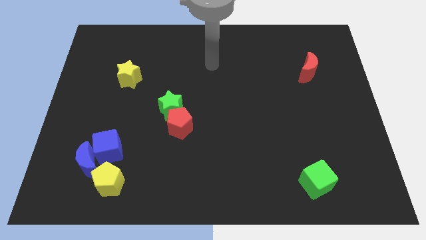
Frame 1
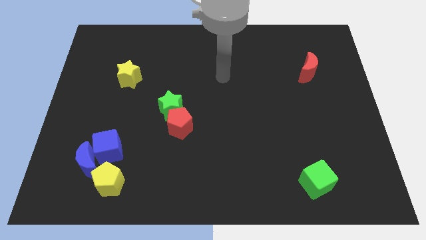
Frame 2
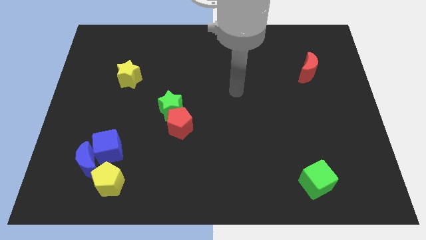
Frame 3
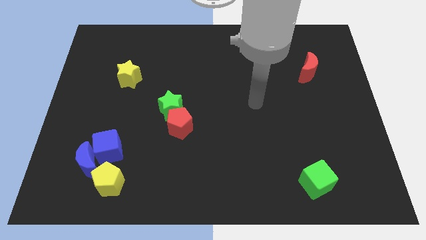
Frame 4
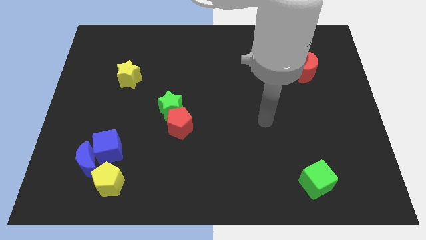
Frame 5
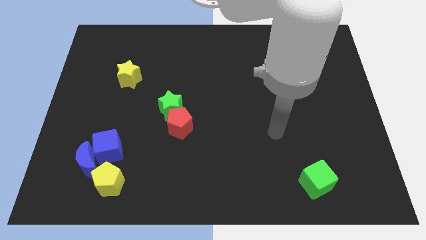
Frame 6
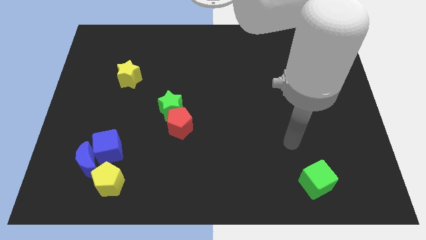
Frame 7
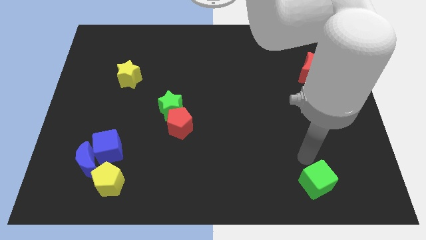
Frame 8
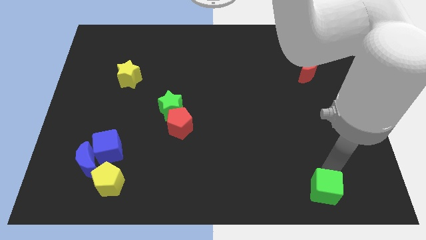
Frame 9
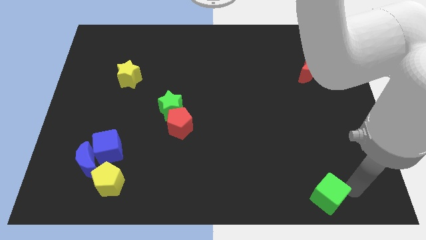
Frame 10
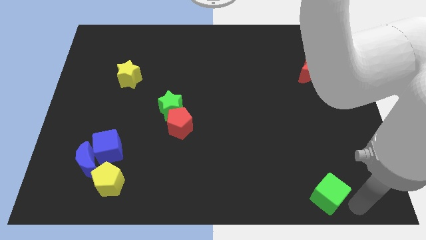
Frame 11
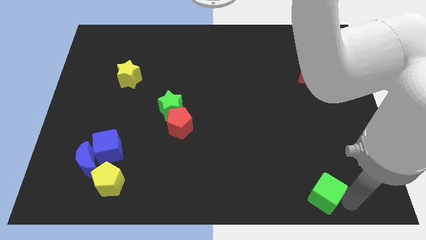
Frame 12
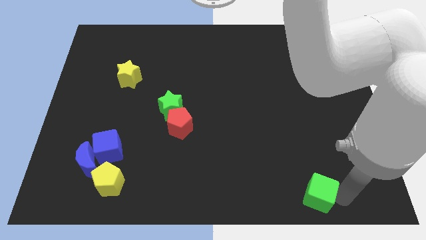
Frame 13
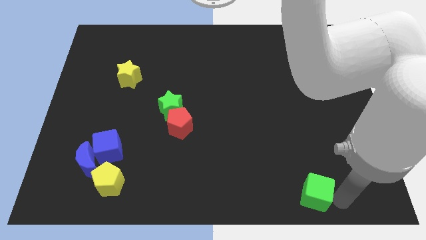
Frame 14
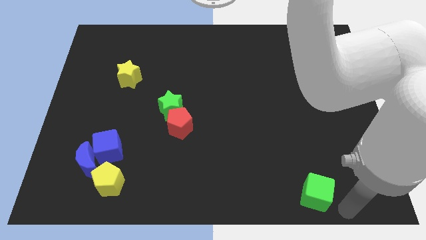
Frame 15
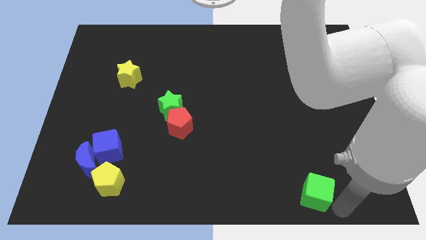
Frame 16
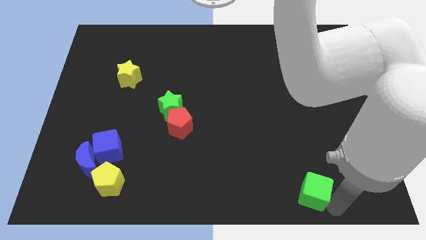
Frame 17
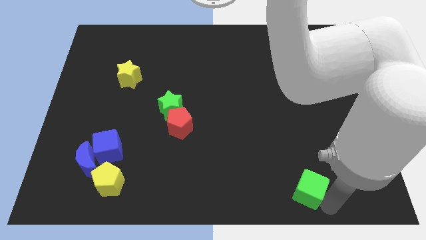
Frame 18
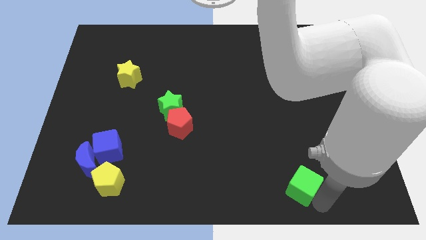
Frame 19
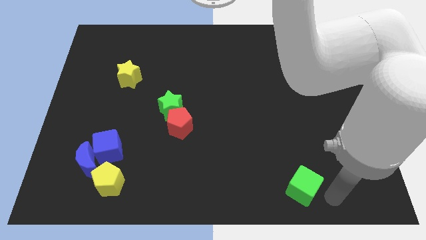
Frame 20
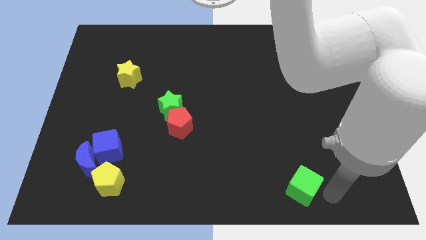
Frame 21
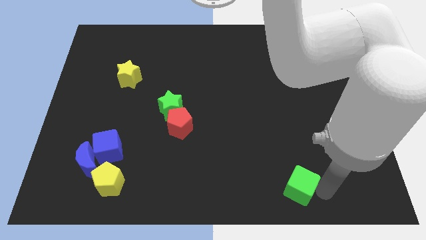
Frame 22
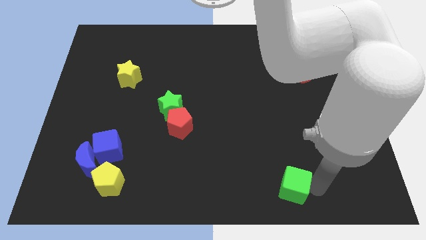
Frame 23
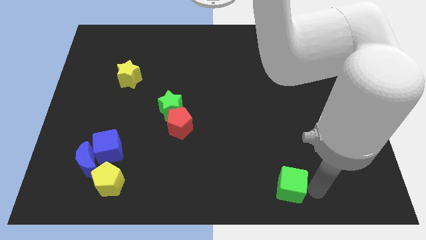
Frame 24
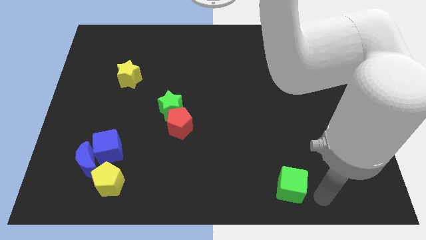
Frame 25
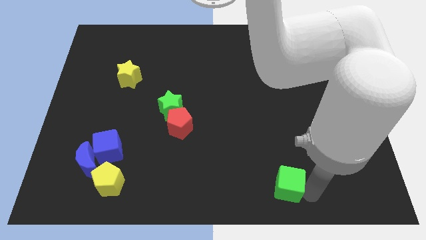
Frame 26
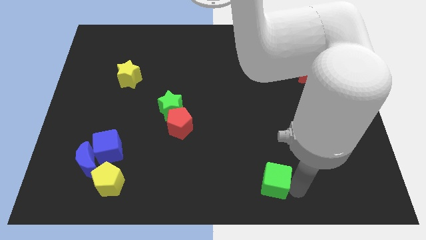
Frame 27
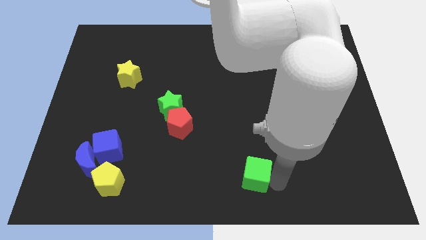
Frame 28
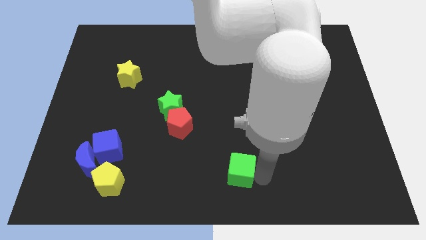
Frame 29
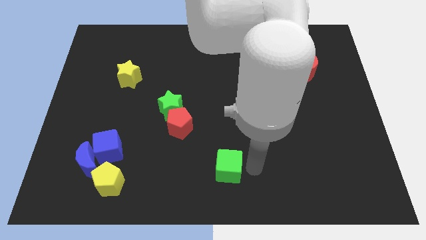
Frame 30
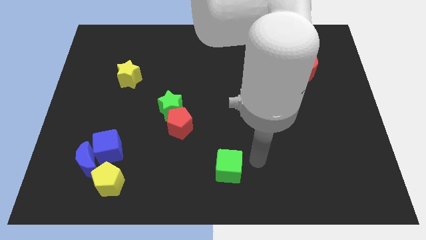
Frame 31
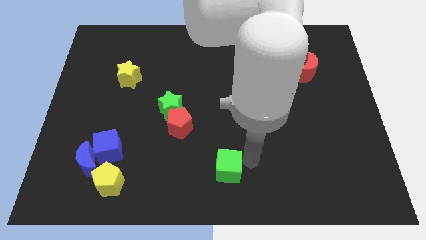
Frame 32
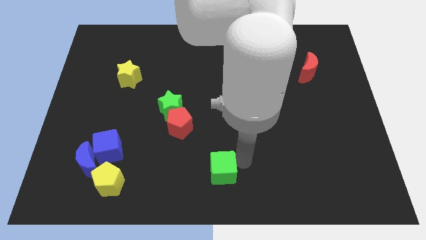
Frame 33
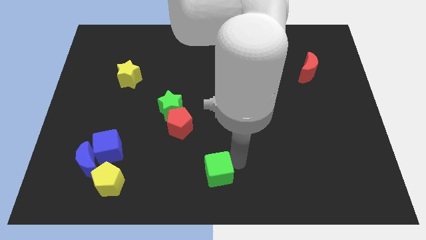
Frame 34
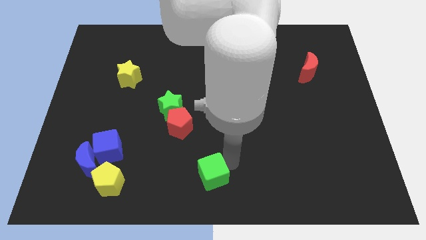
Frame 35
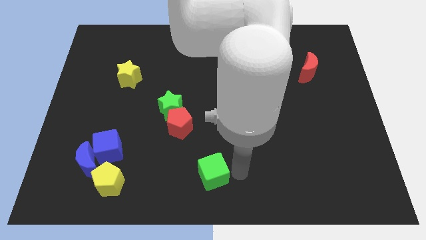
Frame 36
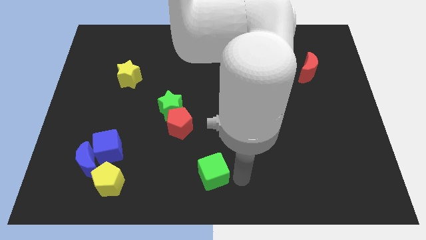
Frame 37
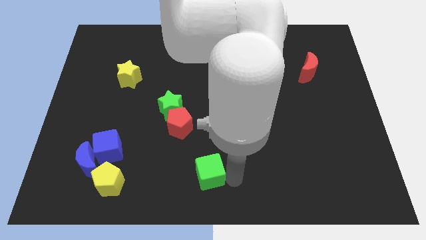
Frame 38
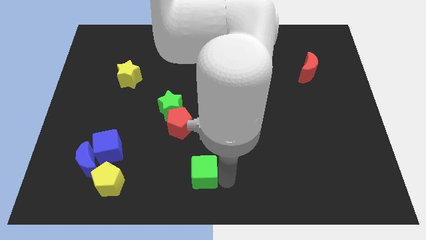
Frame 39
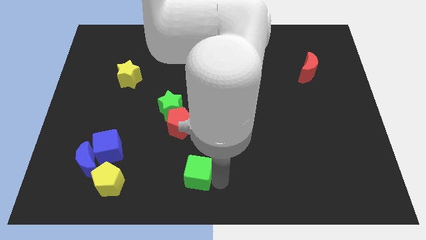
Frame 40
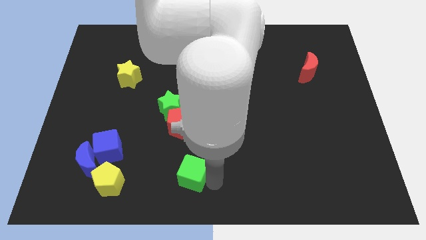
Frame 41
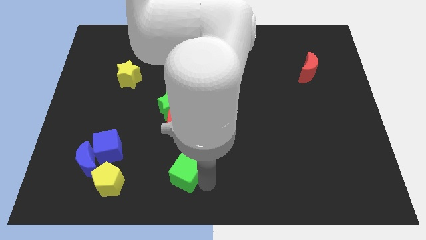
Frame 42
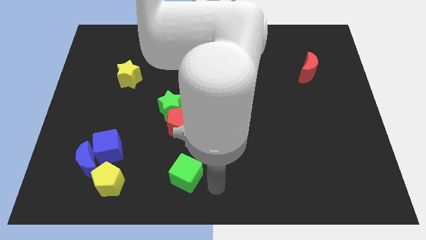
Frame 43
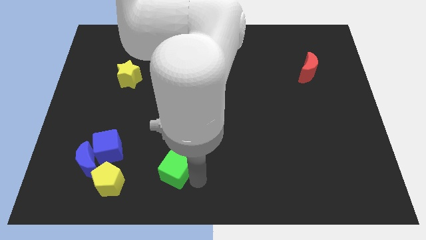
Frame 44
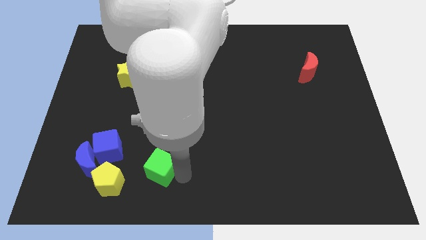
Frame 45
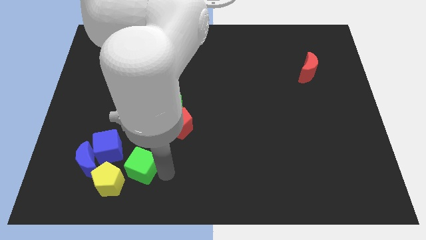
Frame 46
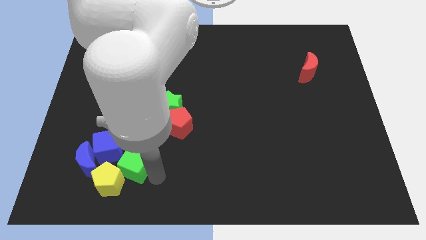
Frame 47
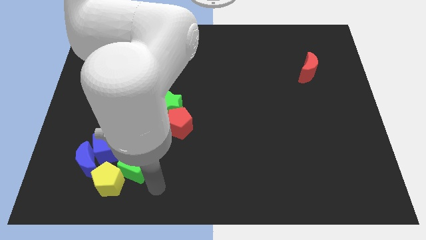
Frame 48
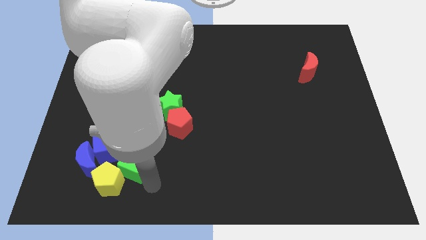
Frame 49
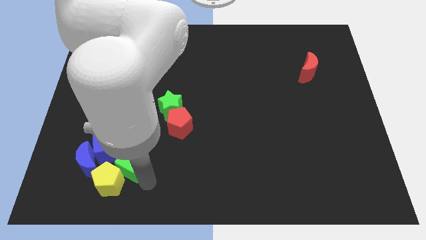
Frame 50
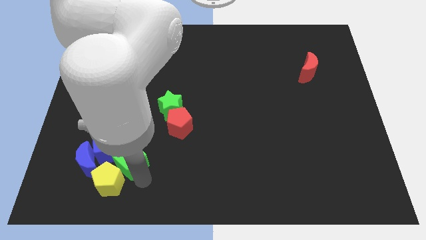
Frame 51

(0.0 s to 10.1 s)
push the green cube towards the blue cube

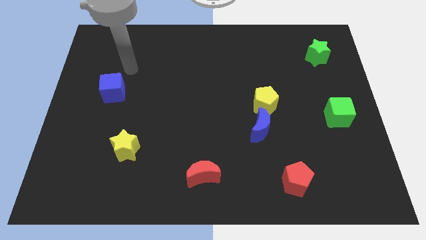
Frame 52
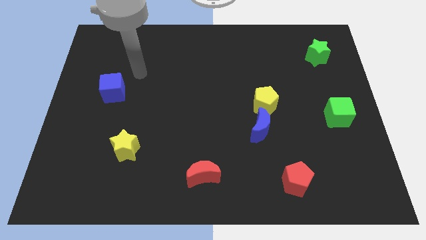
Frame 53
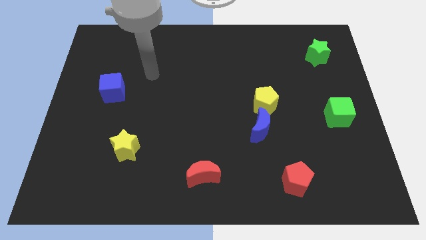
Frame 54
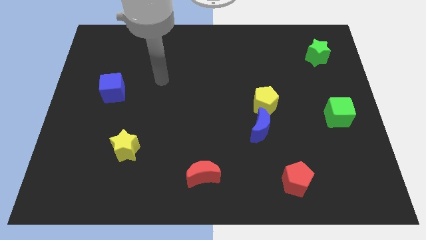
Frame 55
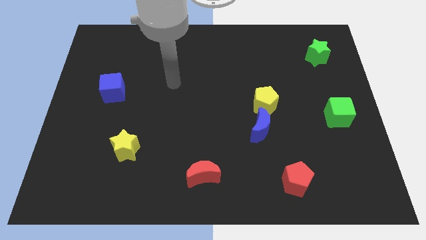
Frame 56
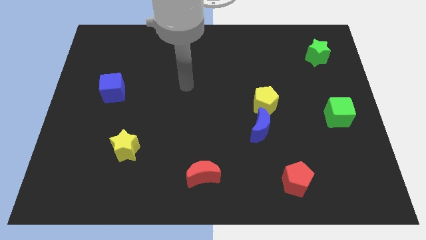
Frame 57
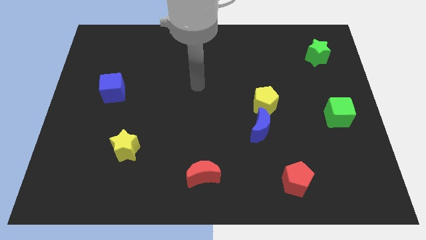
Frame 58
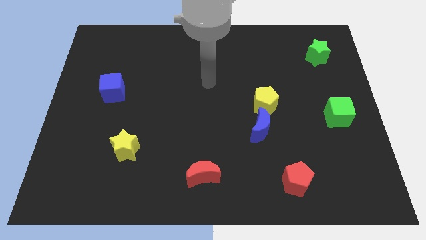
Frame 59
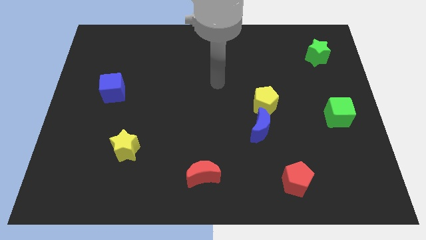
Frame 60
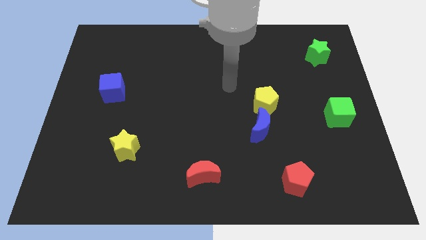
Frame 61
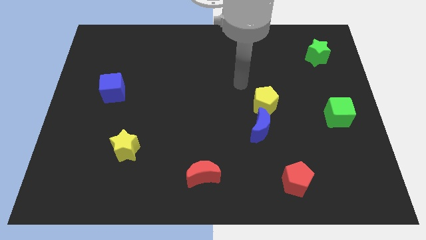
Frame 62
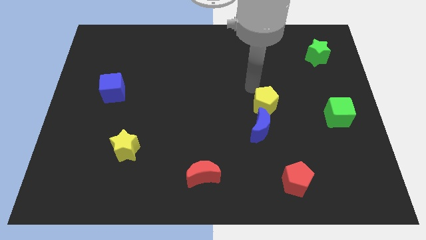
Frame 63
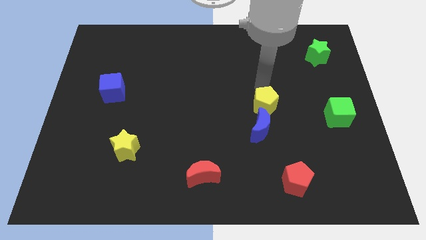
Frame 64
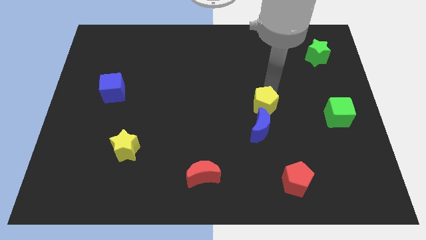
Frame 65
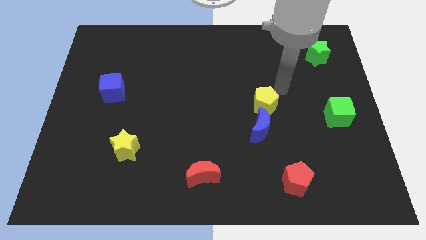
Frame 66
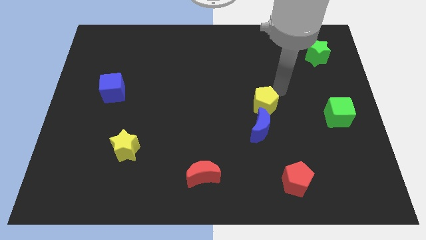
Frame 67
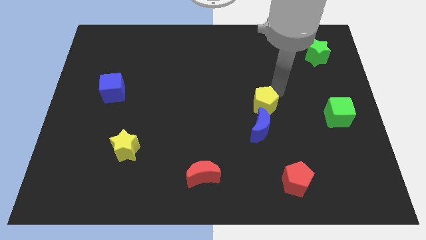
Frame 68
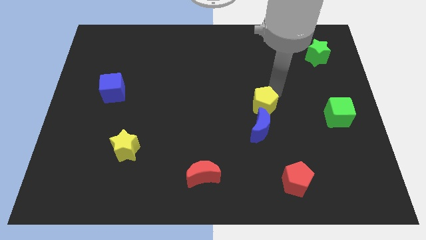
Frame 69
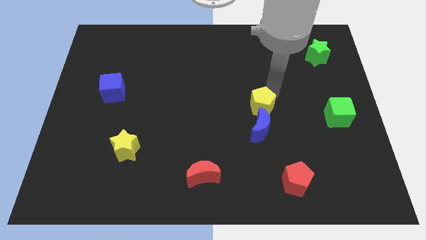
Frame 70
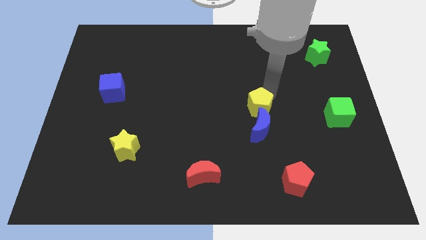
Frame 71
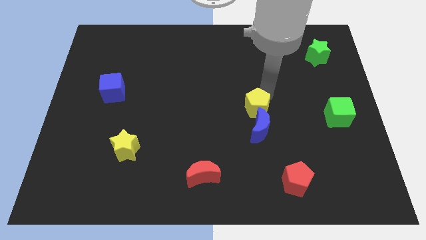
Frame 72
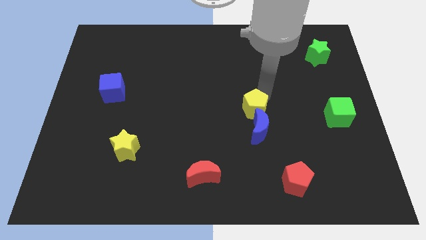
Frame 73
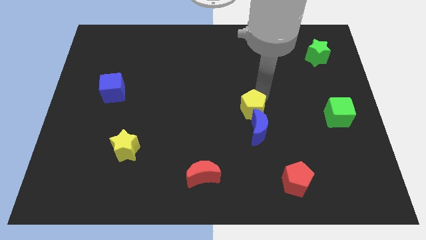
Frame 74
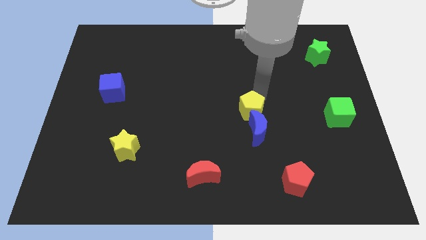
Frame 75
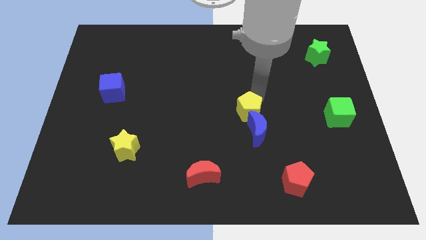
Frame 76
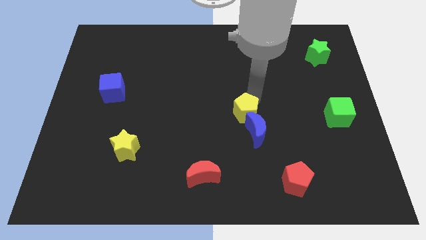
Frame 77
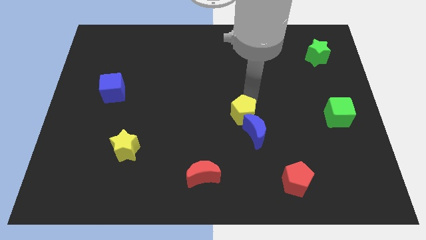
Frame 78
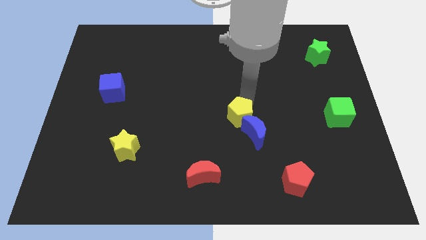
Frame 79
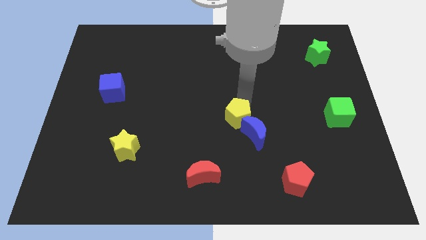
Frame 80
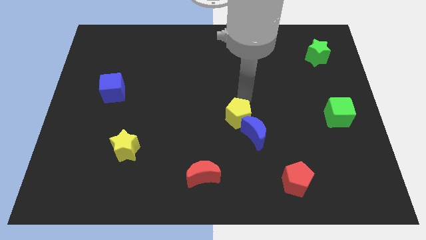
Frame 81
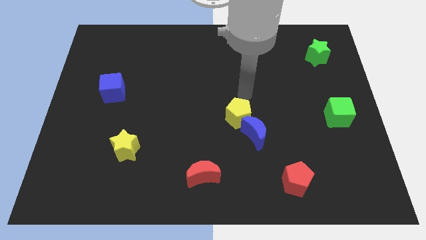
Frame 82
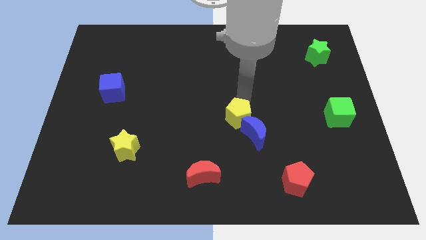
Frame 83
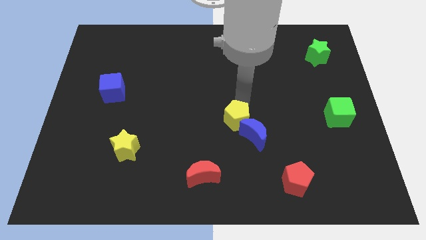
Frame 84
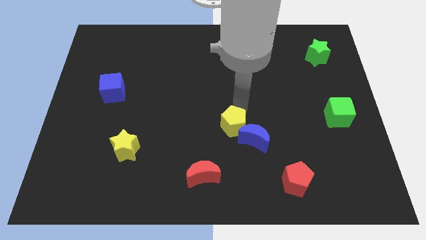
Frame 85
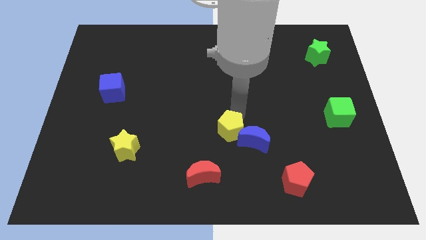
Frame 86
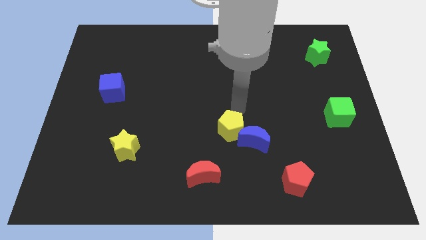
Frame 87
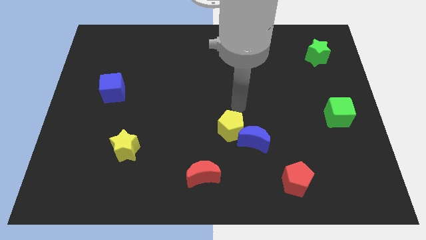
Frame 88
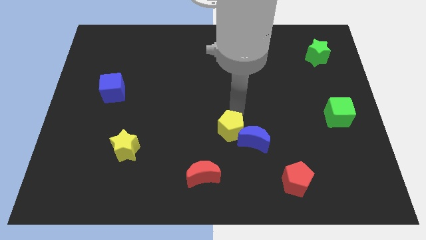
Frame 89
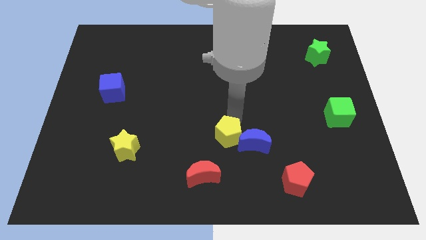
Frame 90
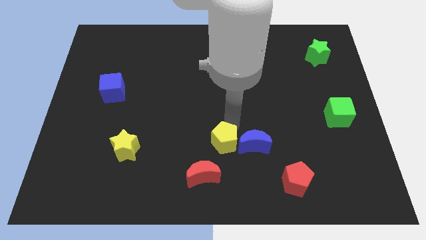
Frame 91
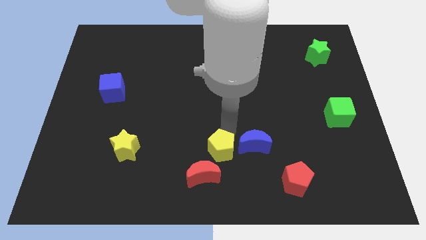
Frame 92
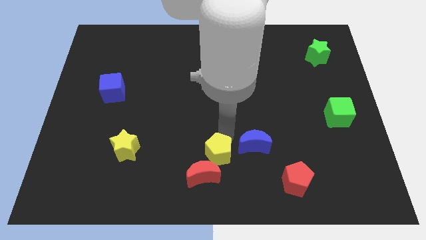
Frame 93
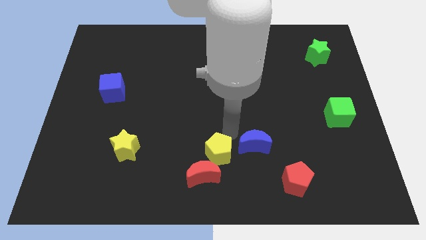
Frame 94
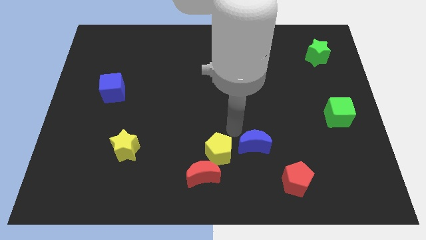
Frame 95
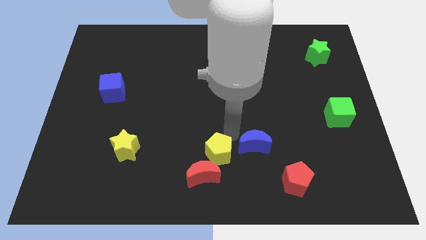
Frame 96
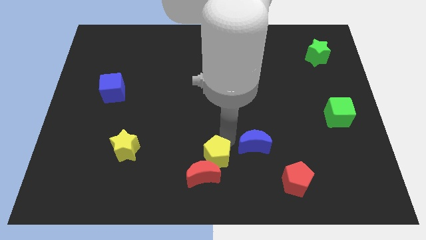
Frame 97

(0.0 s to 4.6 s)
put the yellow pentagon to the red moon
